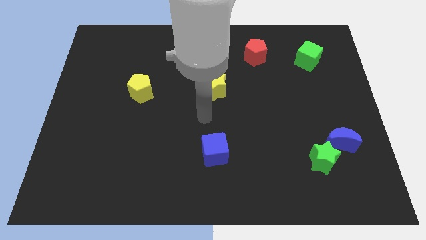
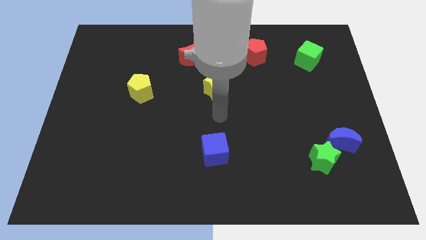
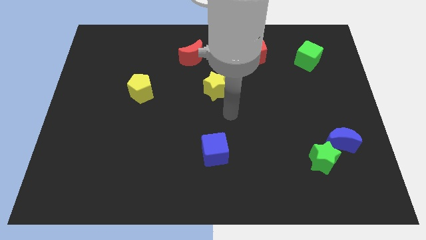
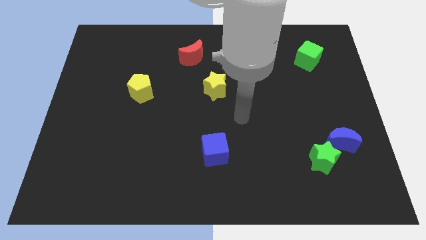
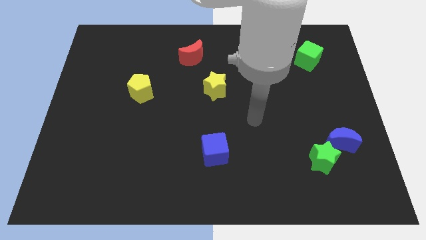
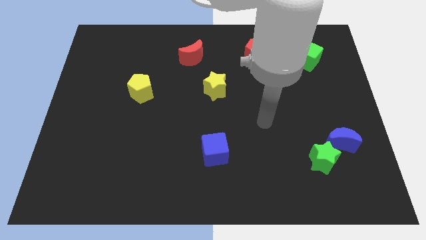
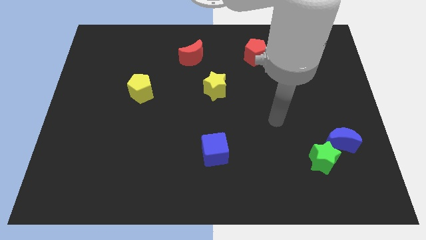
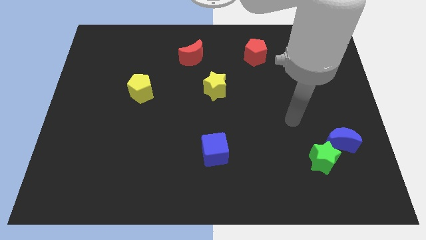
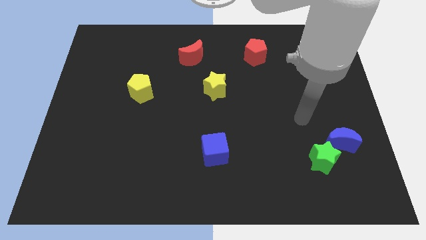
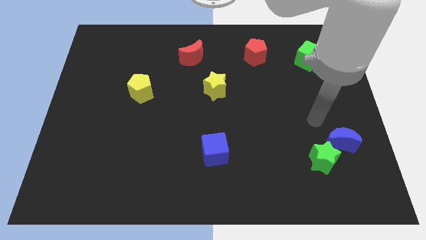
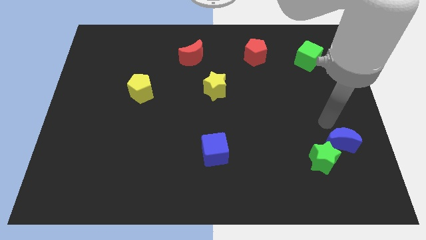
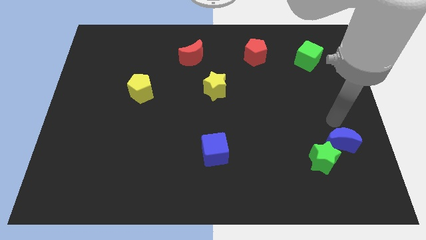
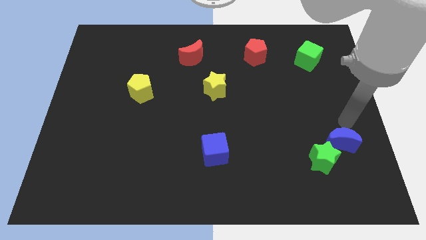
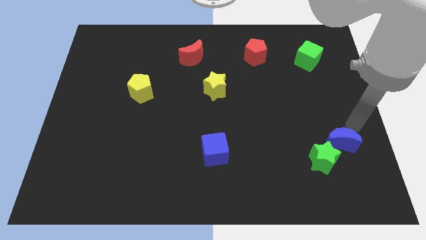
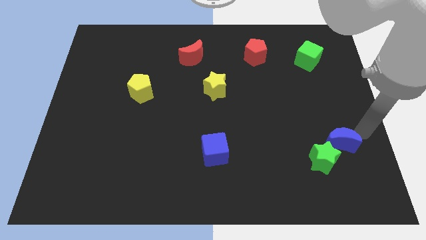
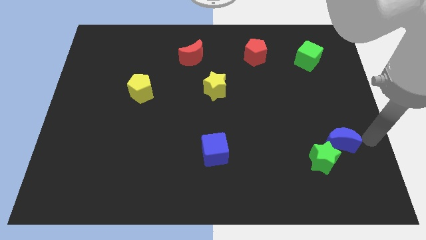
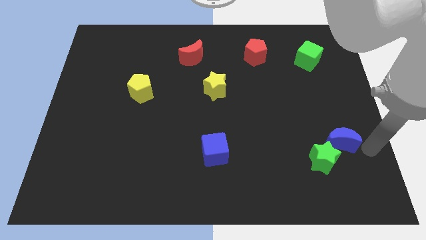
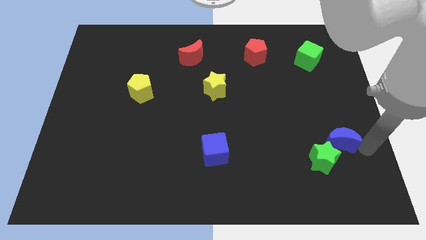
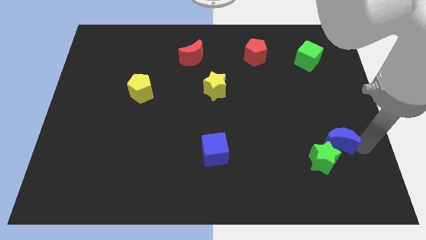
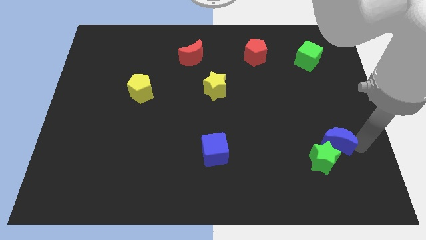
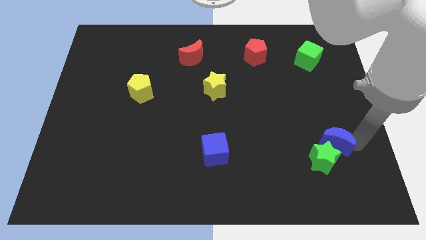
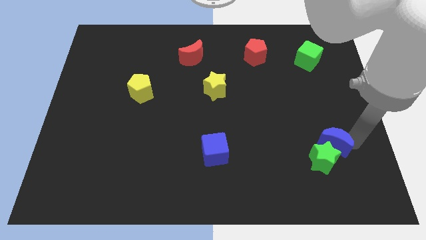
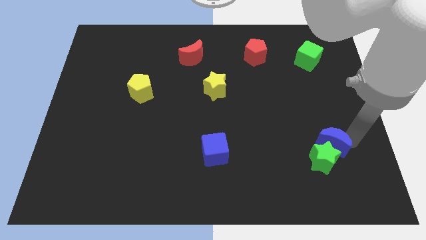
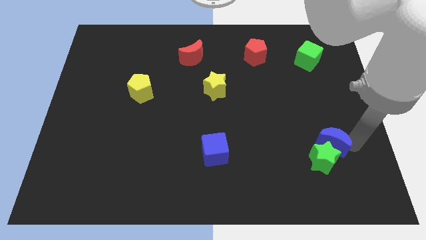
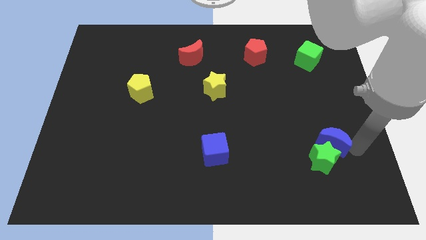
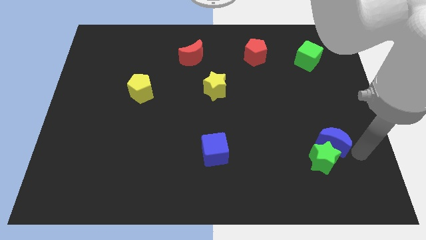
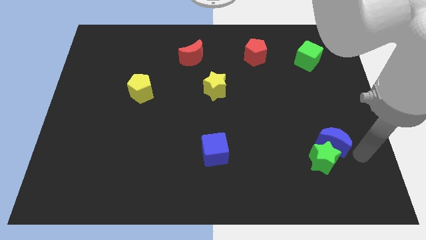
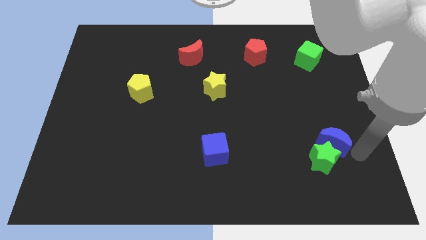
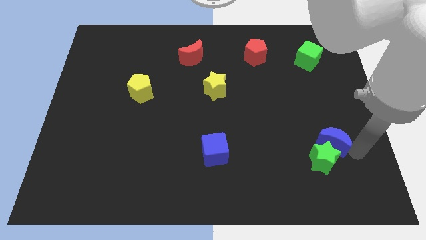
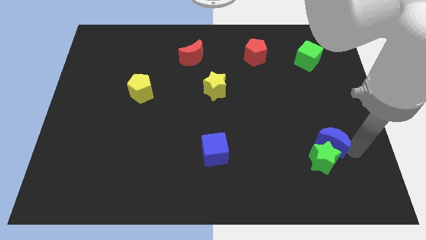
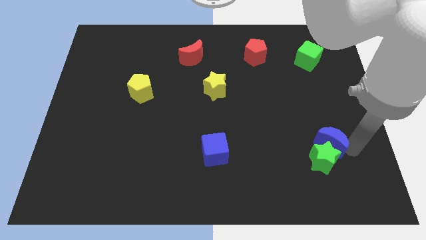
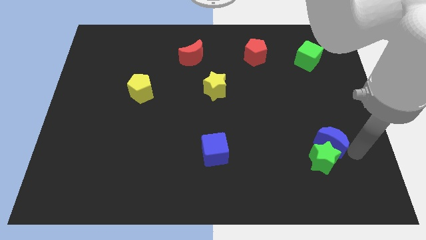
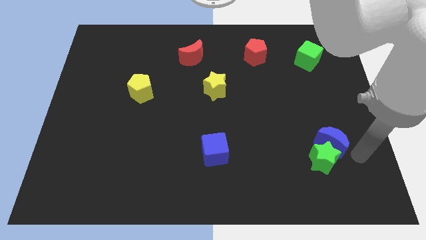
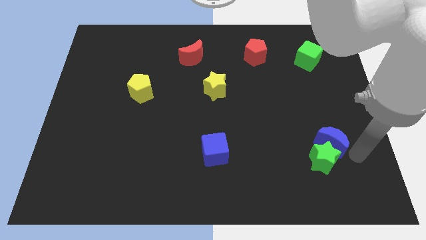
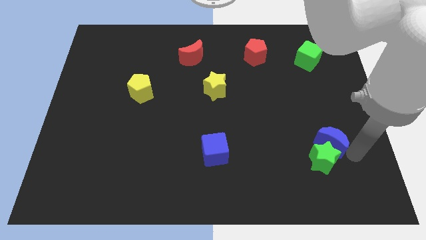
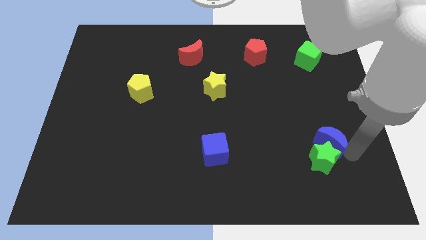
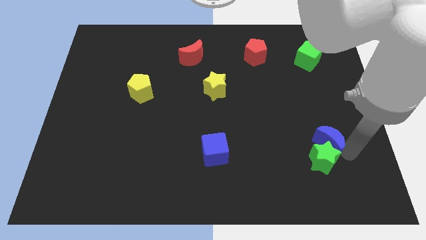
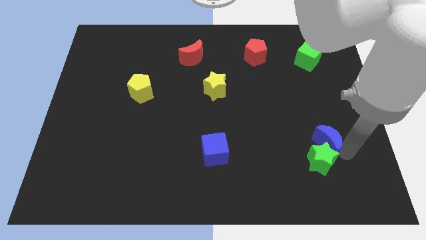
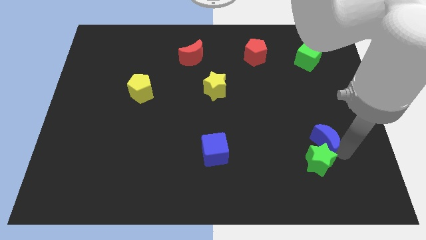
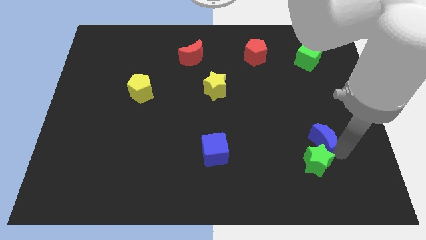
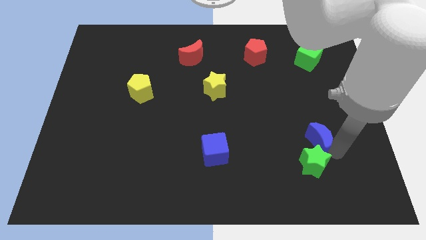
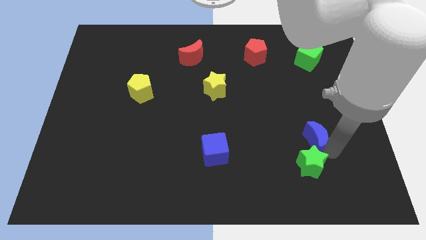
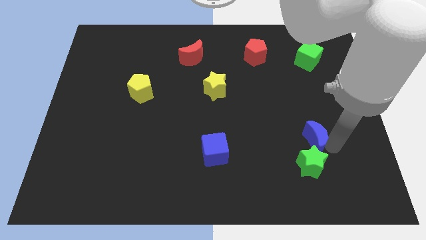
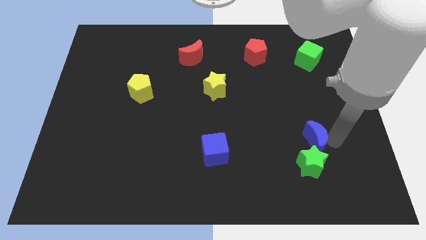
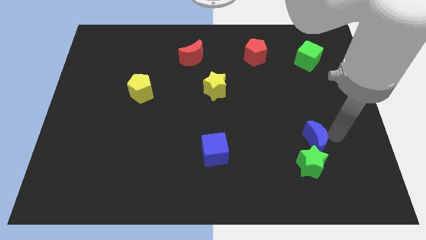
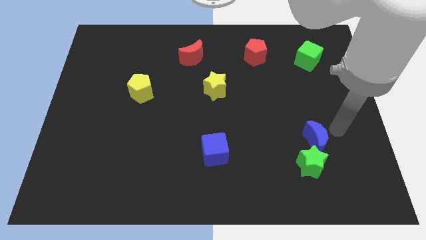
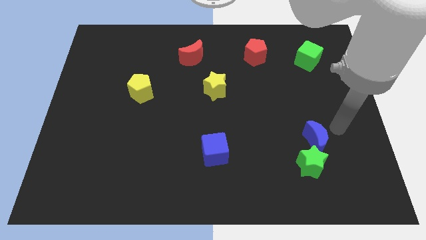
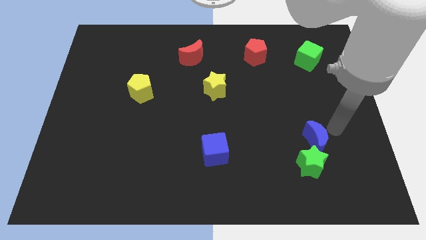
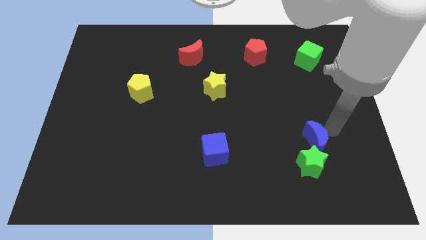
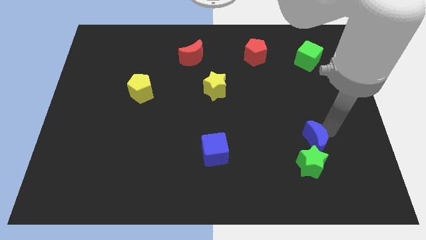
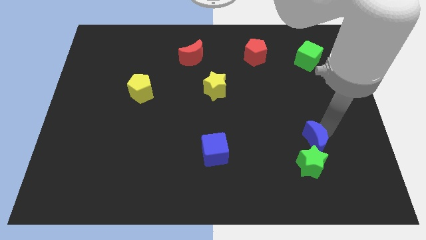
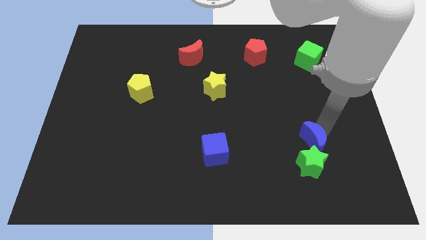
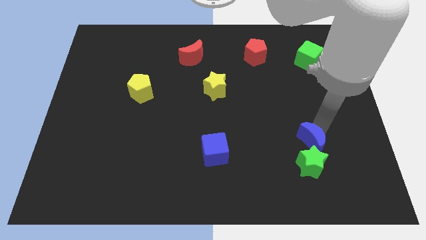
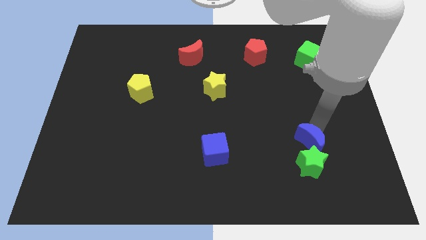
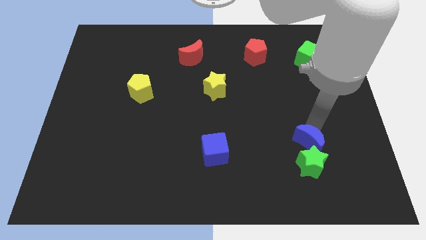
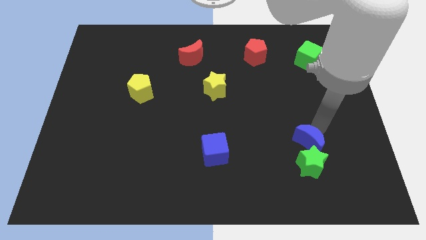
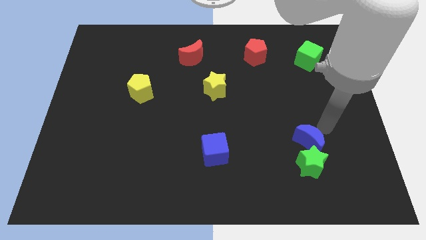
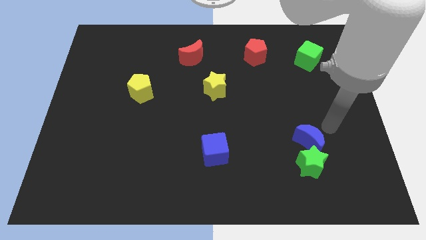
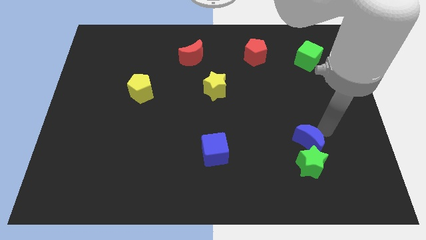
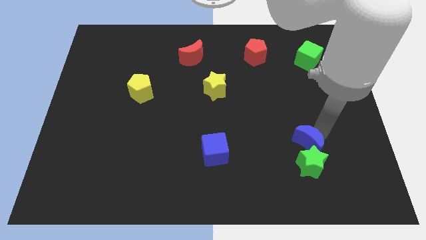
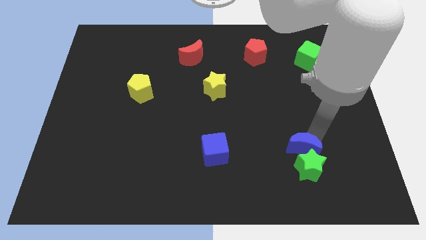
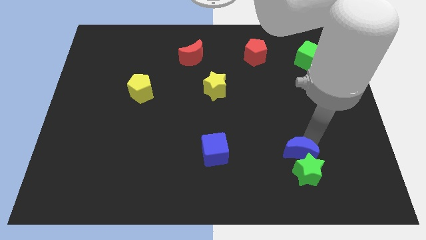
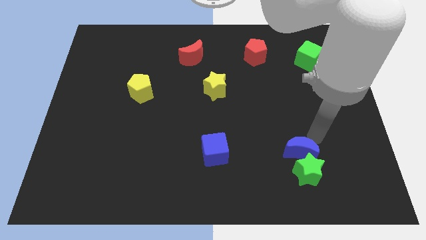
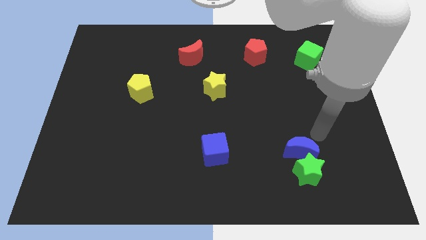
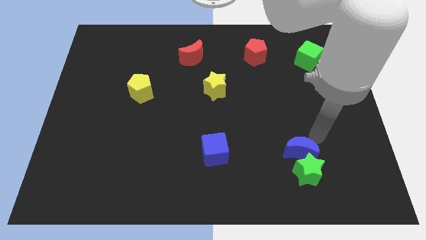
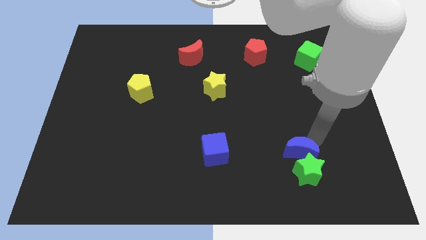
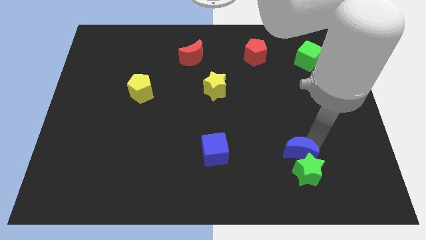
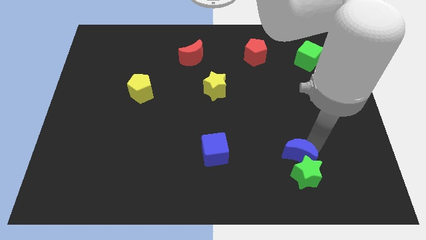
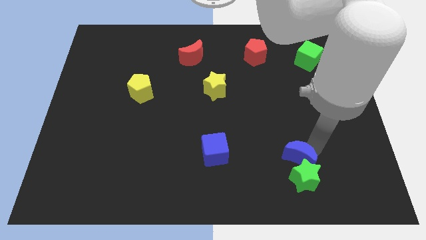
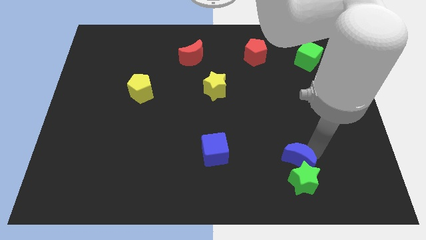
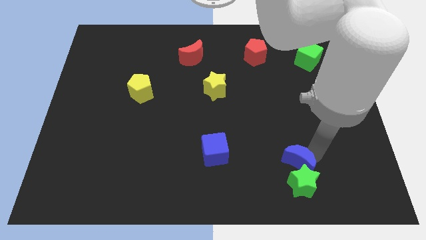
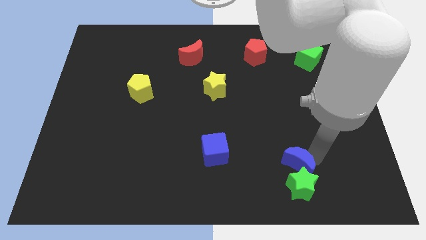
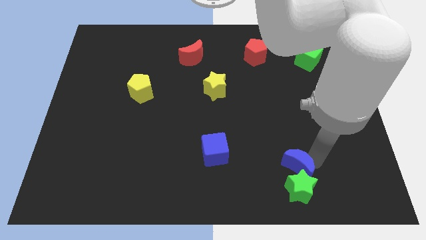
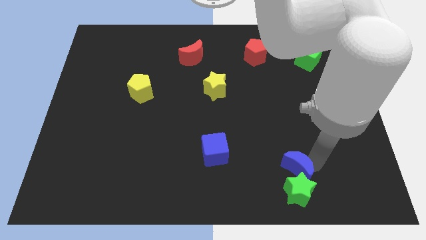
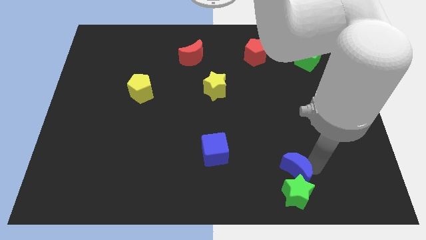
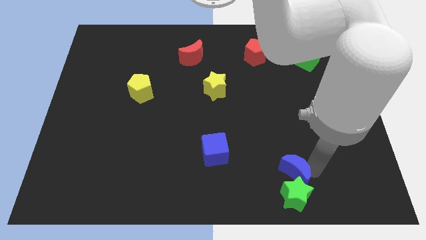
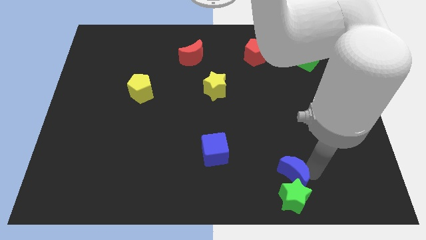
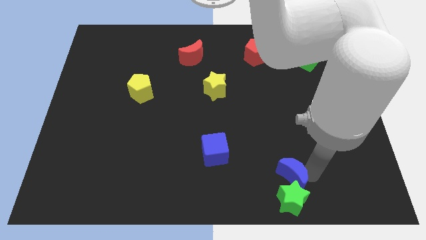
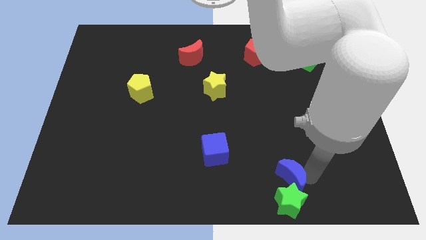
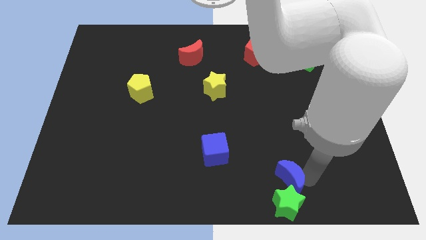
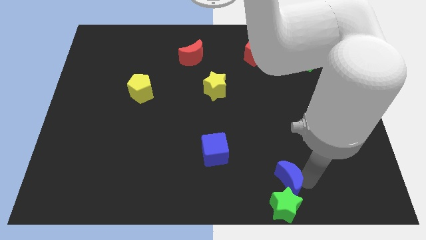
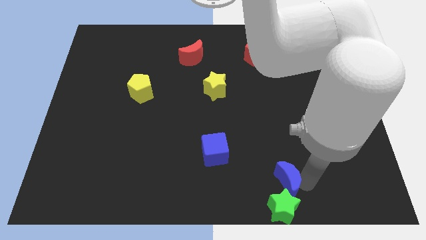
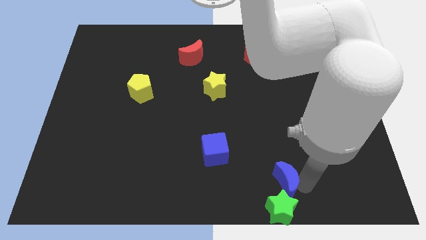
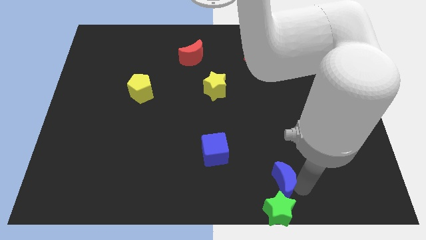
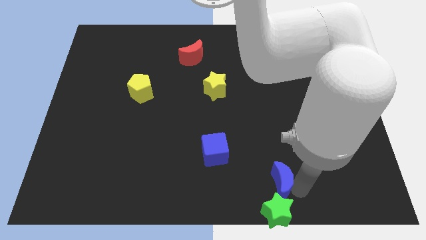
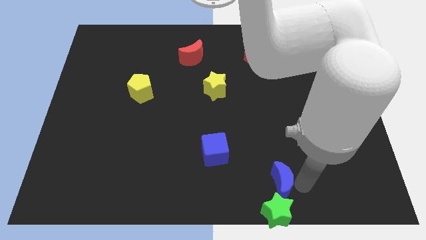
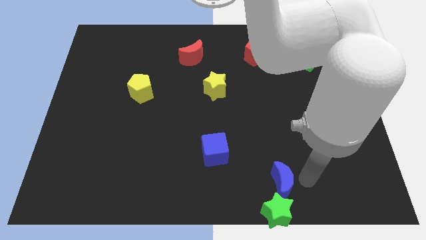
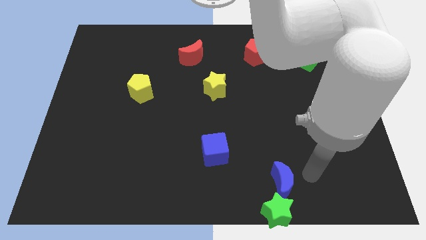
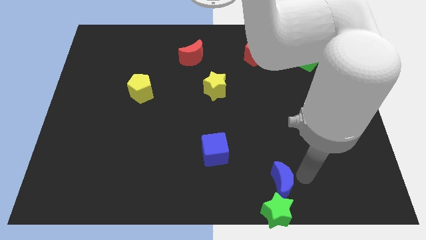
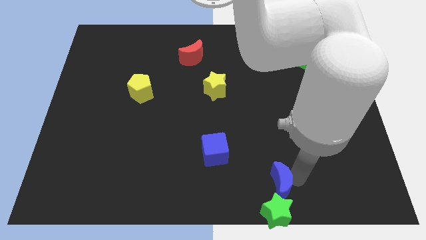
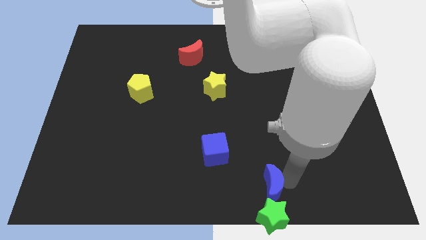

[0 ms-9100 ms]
put the blue moon to the bottom
